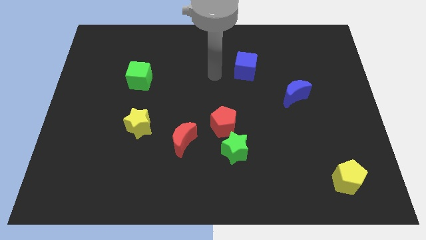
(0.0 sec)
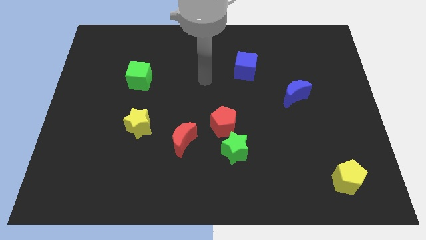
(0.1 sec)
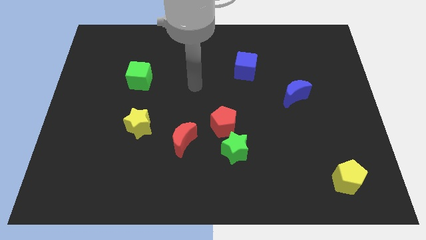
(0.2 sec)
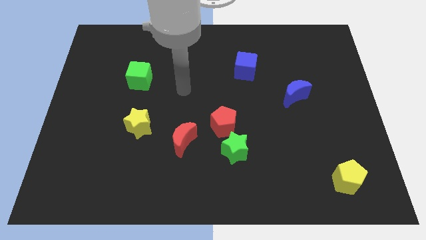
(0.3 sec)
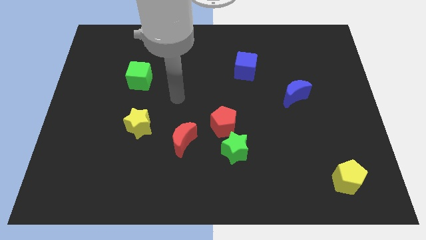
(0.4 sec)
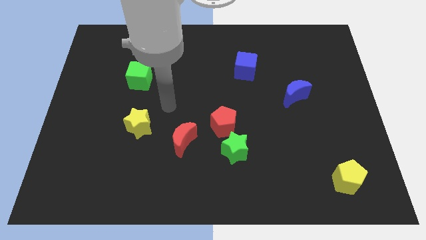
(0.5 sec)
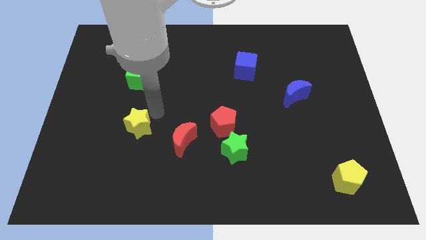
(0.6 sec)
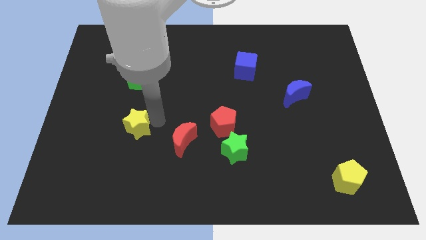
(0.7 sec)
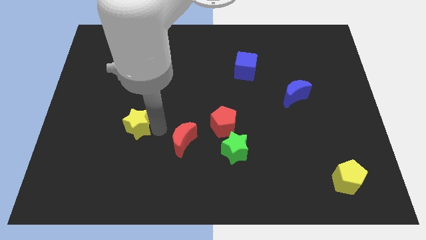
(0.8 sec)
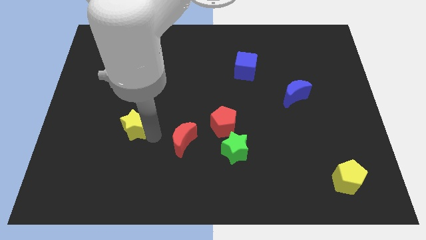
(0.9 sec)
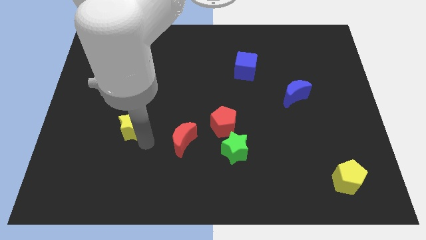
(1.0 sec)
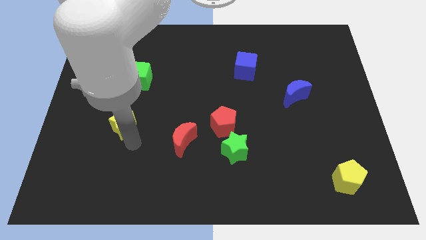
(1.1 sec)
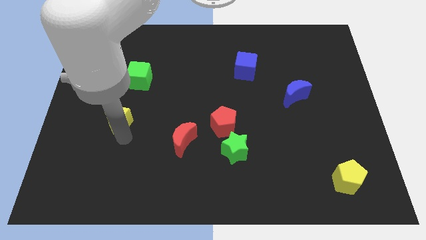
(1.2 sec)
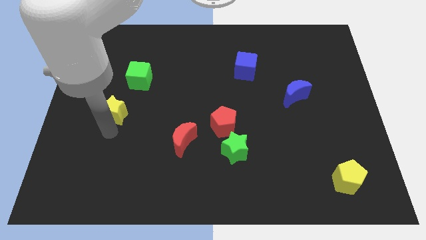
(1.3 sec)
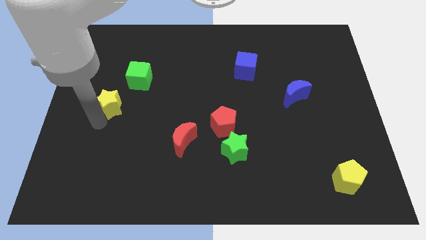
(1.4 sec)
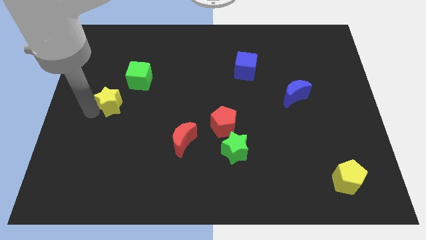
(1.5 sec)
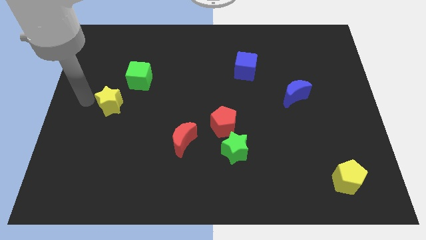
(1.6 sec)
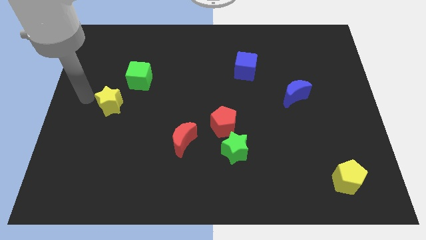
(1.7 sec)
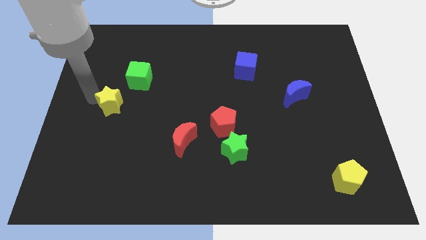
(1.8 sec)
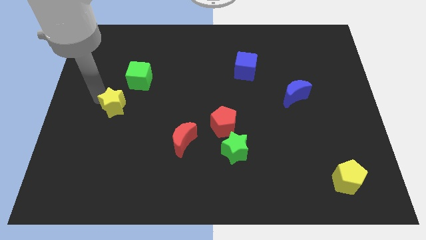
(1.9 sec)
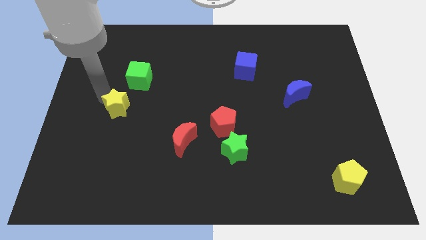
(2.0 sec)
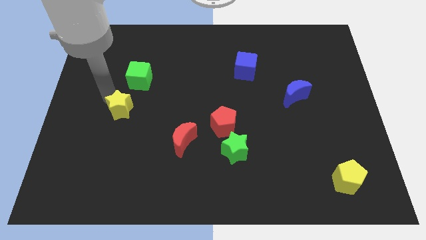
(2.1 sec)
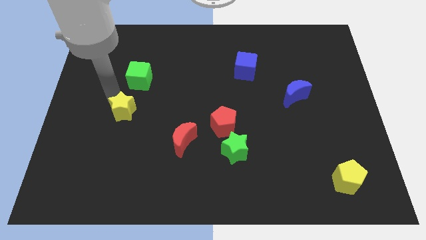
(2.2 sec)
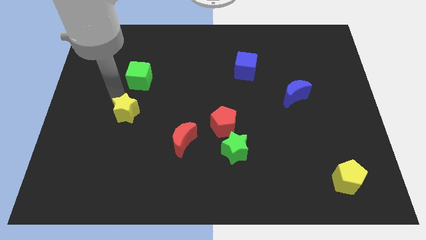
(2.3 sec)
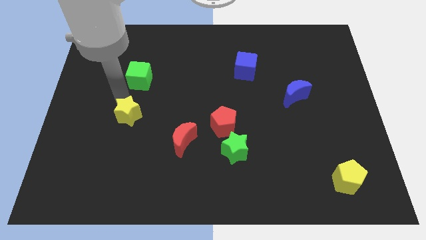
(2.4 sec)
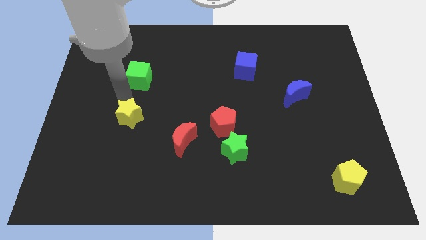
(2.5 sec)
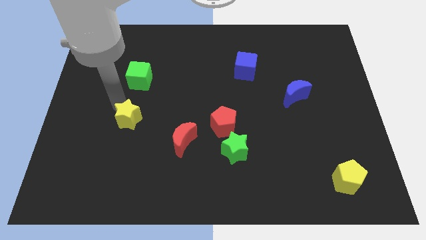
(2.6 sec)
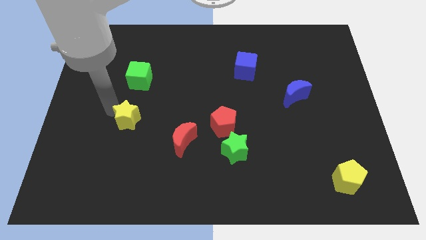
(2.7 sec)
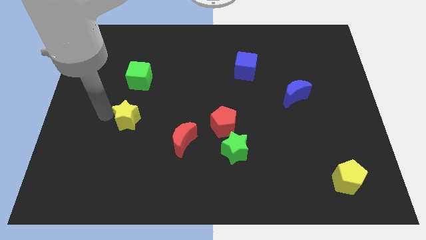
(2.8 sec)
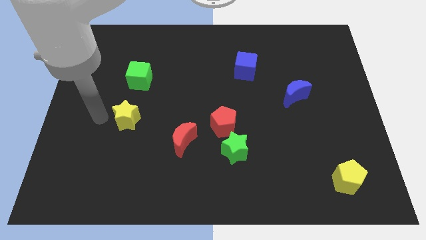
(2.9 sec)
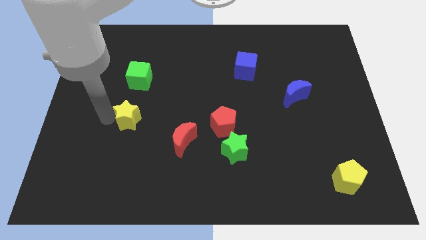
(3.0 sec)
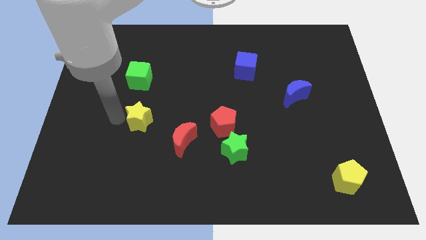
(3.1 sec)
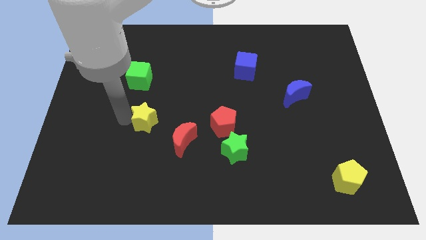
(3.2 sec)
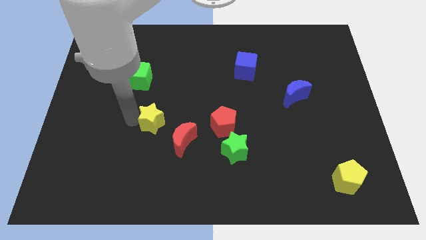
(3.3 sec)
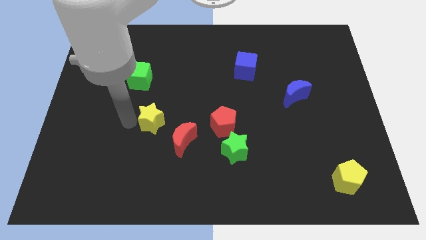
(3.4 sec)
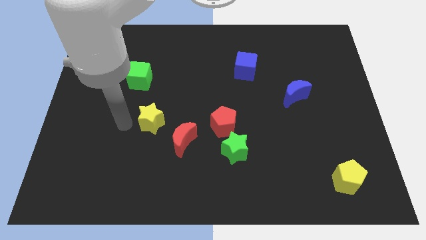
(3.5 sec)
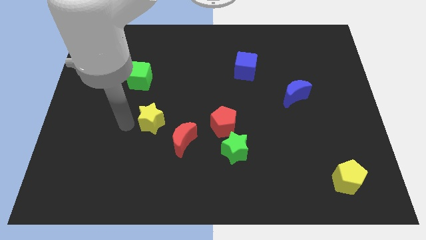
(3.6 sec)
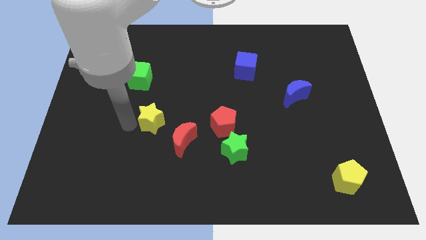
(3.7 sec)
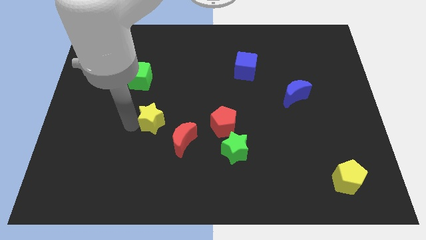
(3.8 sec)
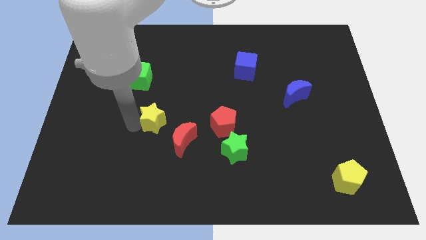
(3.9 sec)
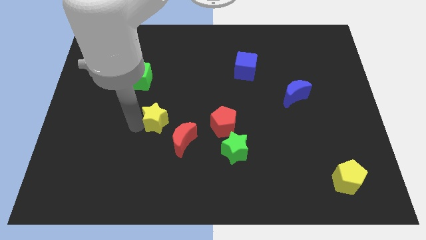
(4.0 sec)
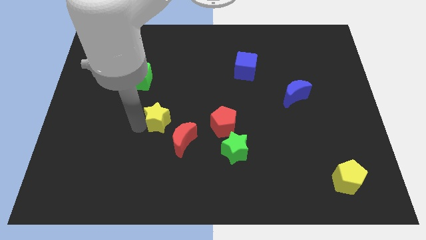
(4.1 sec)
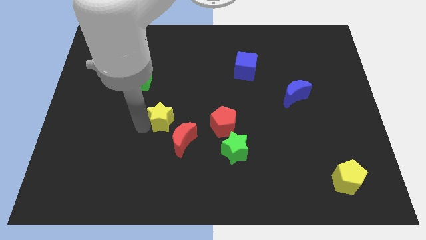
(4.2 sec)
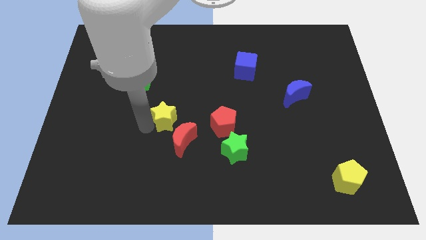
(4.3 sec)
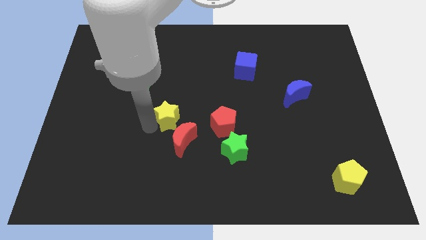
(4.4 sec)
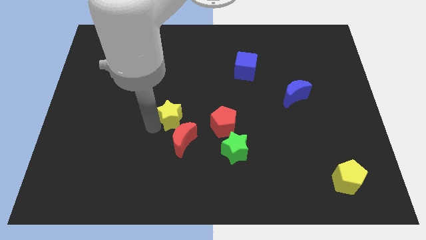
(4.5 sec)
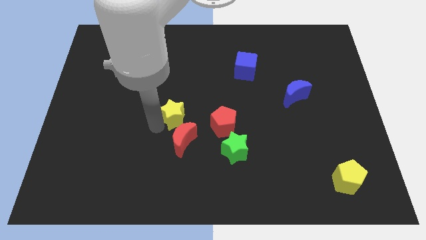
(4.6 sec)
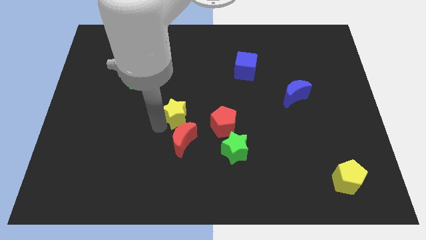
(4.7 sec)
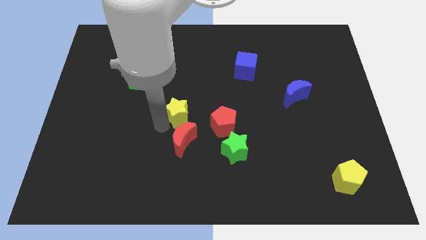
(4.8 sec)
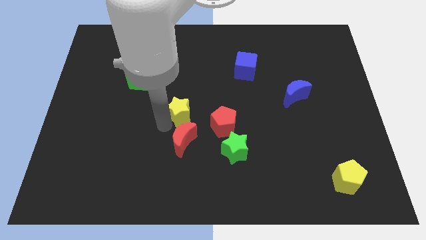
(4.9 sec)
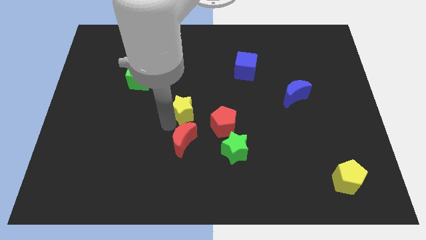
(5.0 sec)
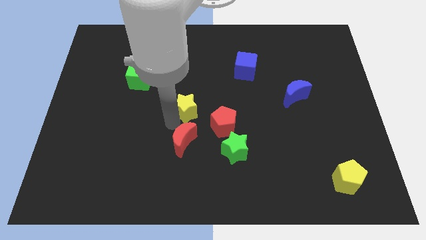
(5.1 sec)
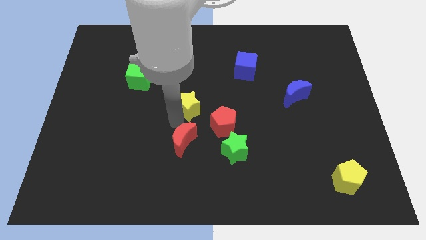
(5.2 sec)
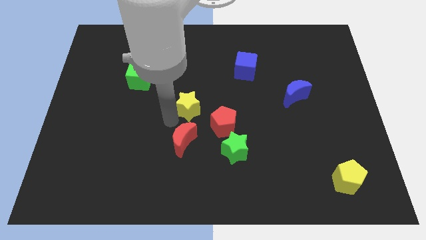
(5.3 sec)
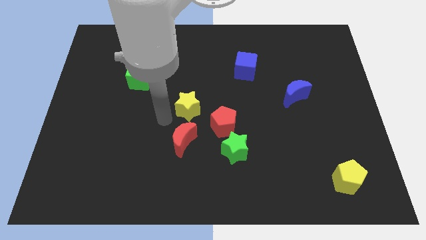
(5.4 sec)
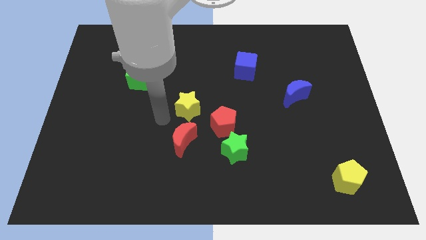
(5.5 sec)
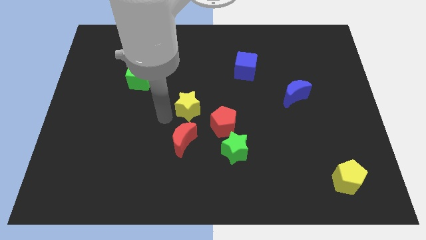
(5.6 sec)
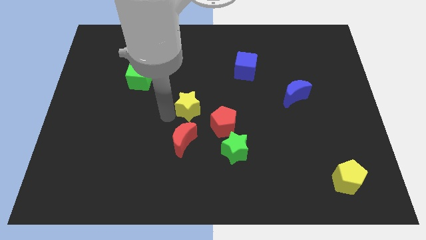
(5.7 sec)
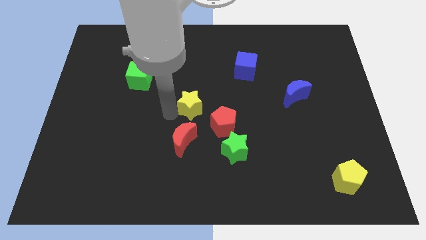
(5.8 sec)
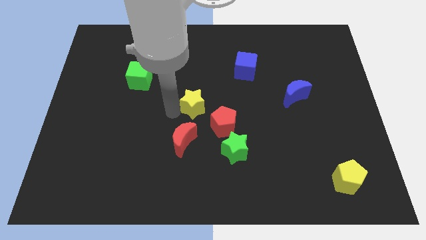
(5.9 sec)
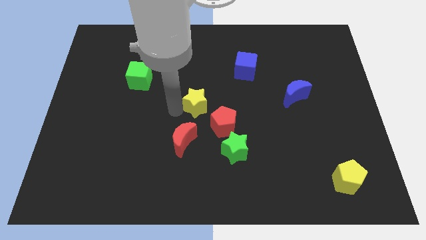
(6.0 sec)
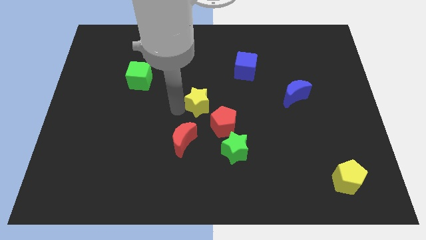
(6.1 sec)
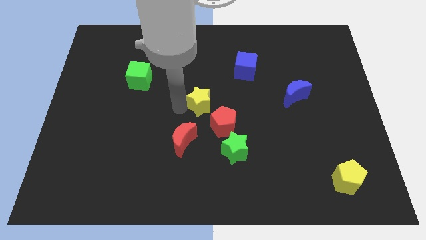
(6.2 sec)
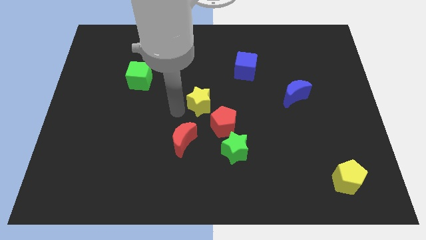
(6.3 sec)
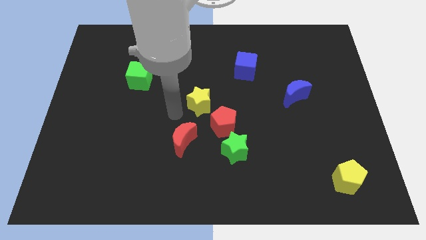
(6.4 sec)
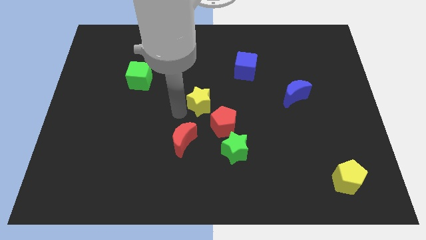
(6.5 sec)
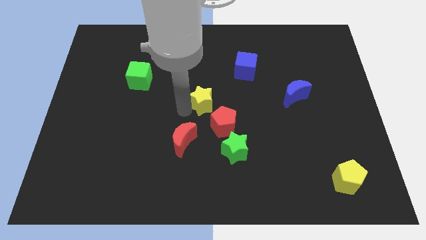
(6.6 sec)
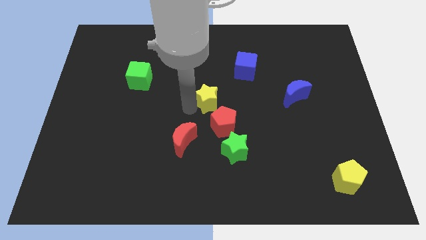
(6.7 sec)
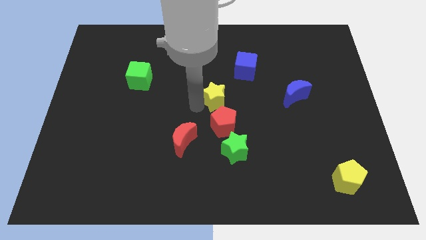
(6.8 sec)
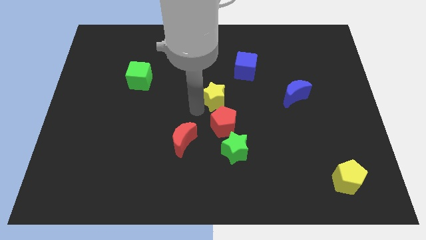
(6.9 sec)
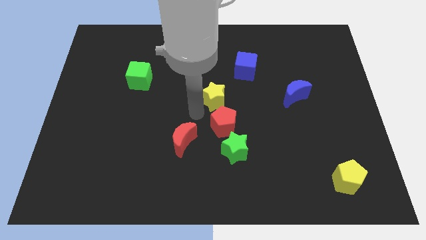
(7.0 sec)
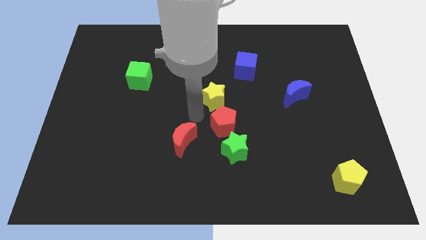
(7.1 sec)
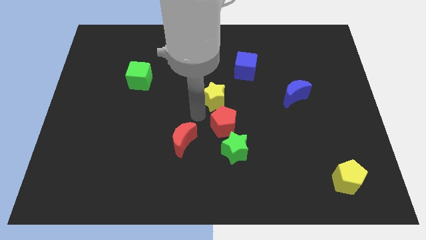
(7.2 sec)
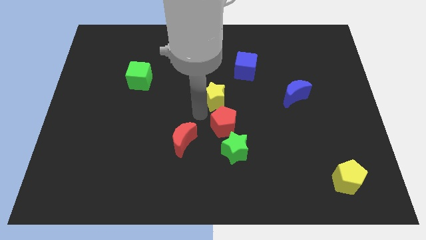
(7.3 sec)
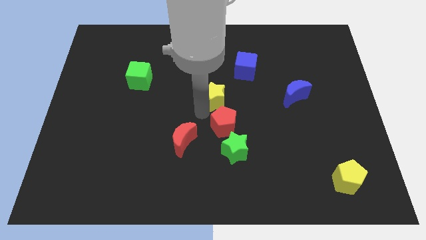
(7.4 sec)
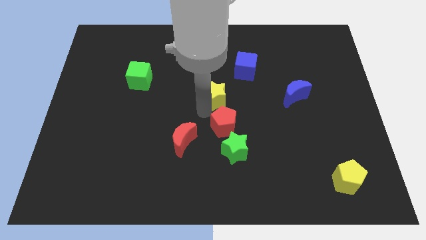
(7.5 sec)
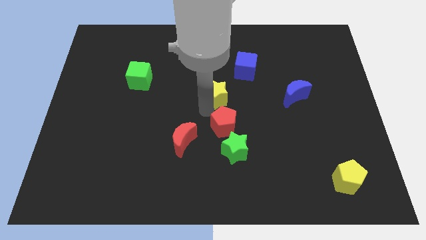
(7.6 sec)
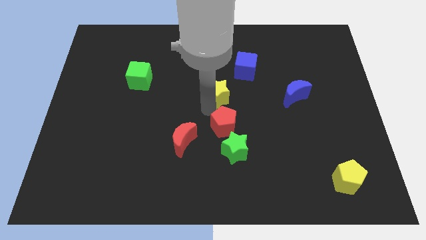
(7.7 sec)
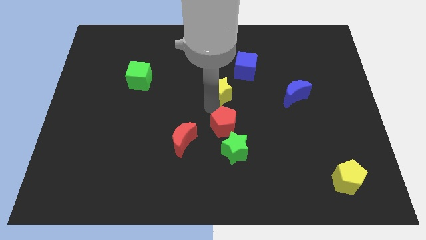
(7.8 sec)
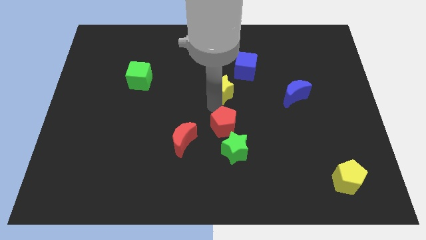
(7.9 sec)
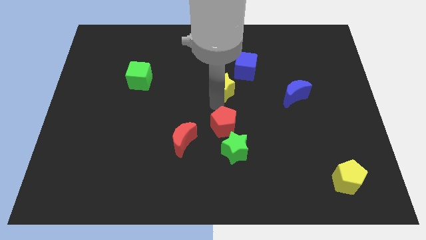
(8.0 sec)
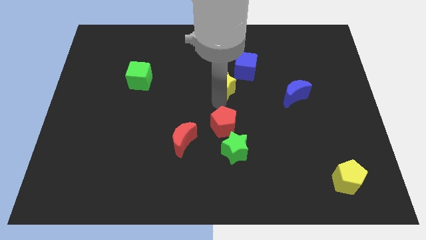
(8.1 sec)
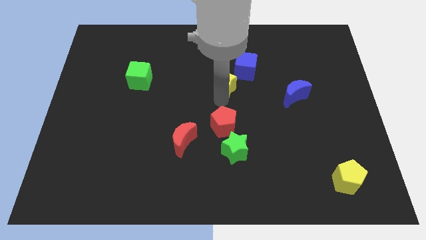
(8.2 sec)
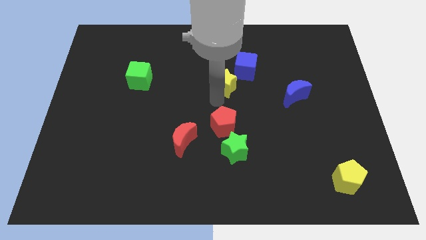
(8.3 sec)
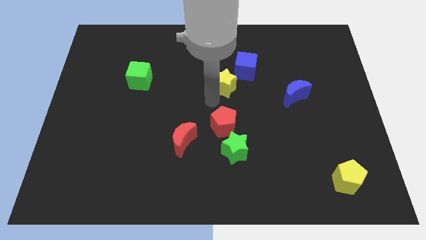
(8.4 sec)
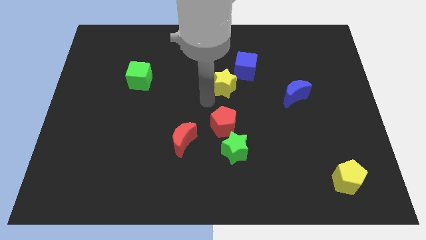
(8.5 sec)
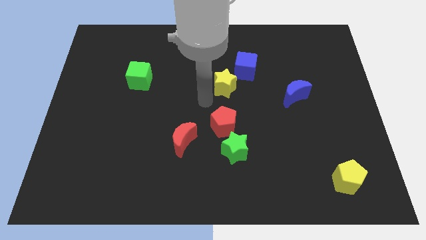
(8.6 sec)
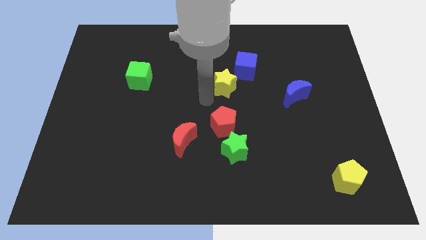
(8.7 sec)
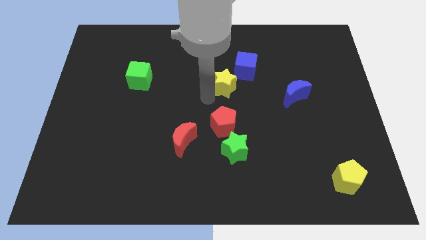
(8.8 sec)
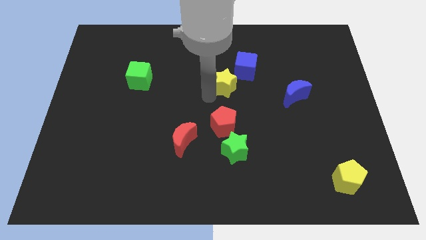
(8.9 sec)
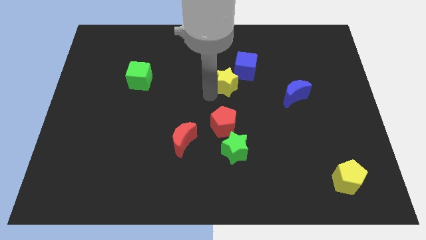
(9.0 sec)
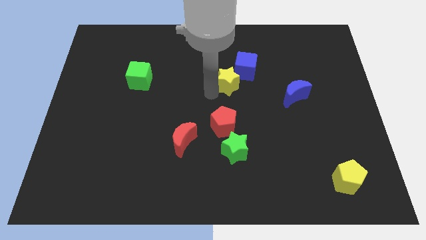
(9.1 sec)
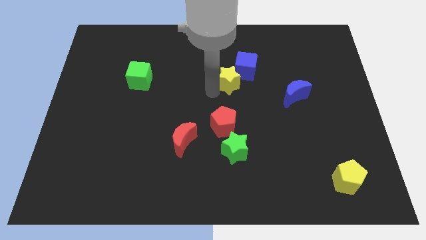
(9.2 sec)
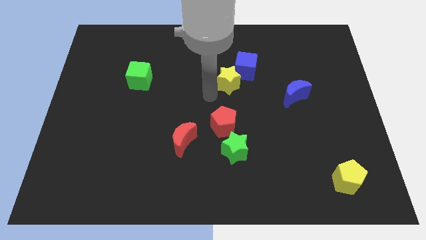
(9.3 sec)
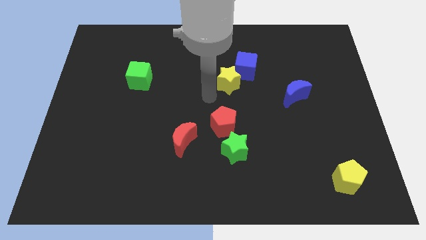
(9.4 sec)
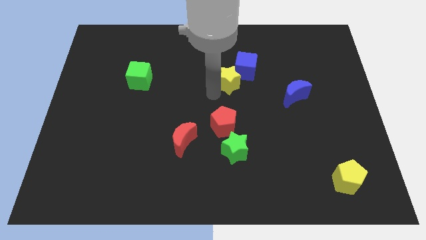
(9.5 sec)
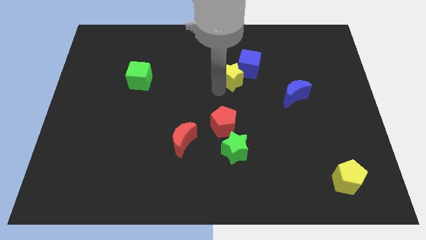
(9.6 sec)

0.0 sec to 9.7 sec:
move the yellow star close to the blue cube
